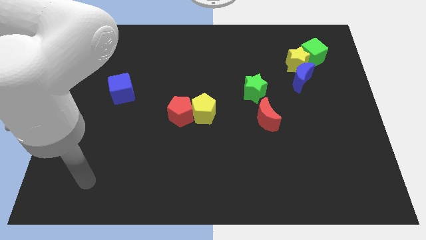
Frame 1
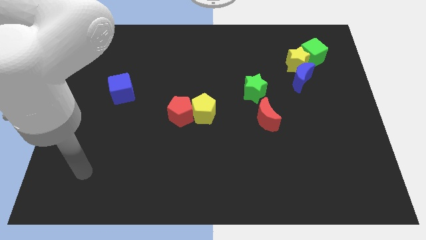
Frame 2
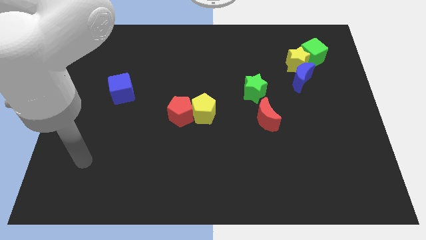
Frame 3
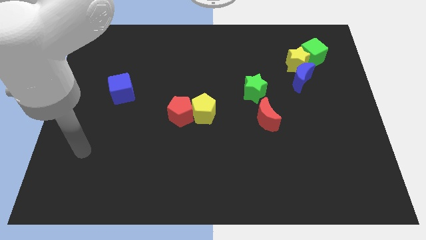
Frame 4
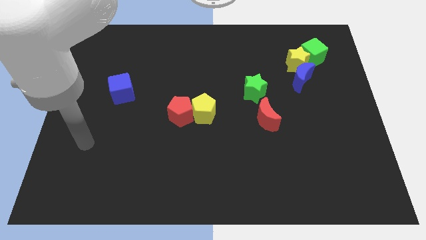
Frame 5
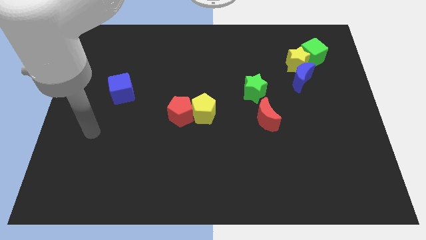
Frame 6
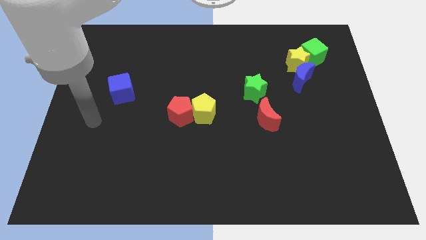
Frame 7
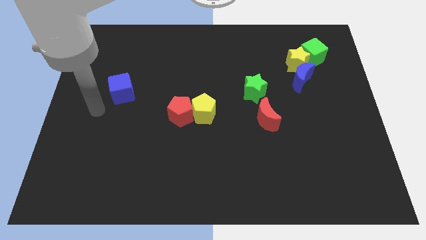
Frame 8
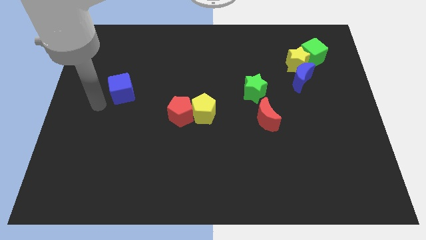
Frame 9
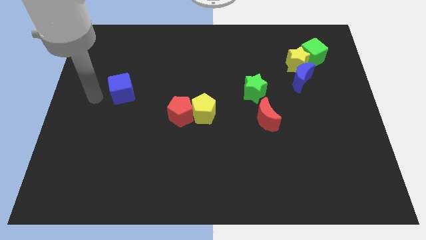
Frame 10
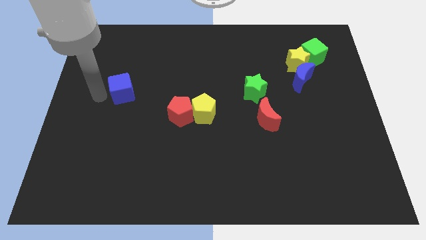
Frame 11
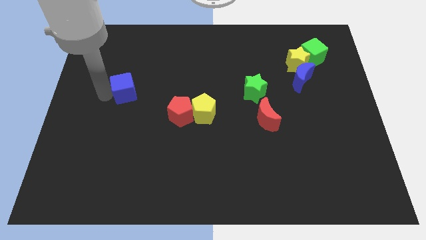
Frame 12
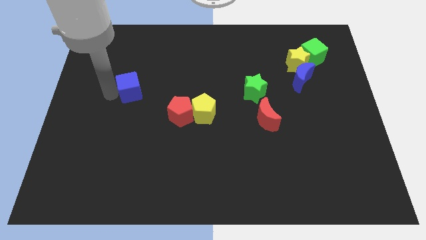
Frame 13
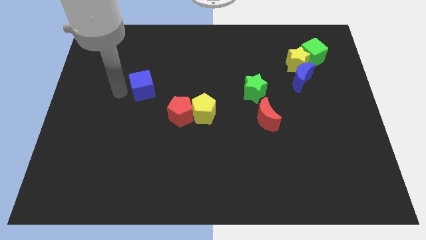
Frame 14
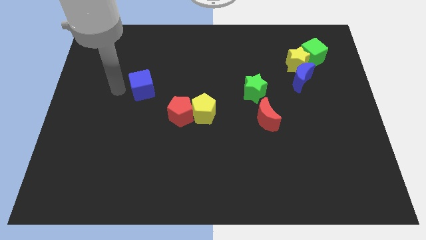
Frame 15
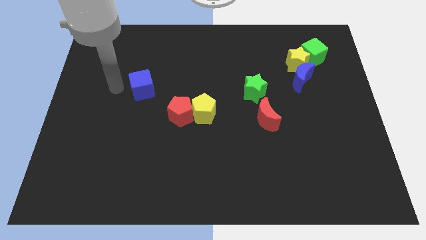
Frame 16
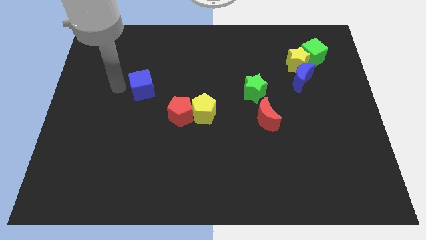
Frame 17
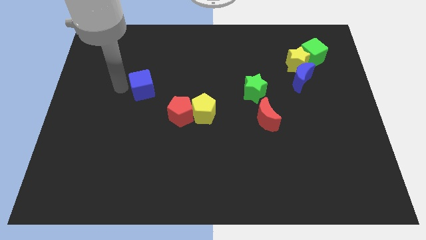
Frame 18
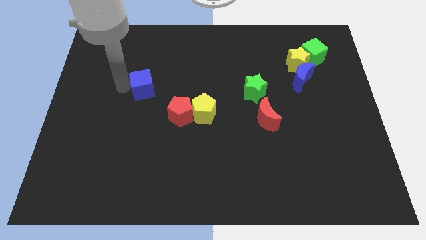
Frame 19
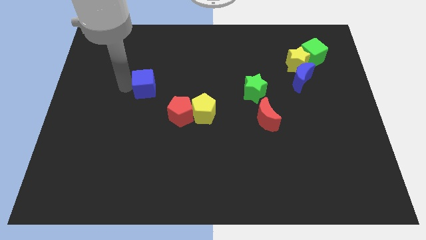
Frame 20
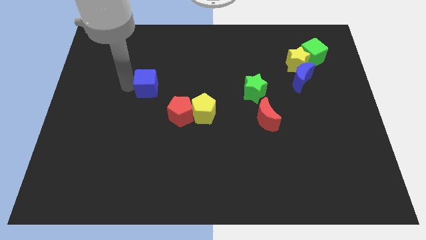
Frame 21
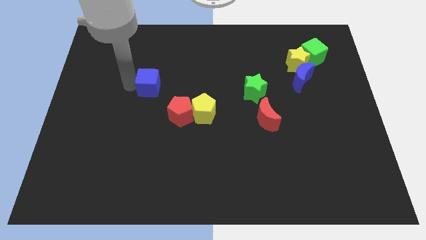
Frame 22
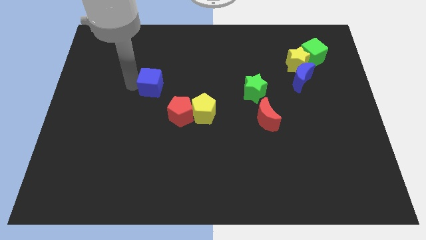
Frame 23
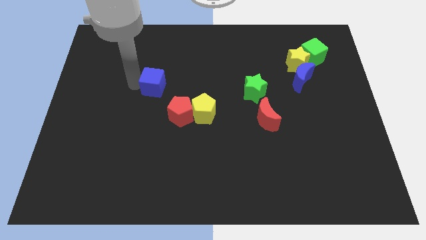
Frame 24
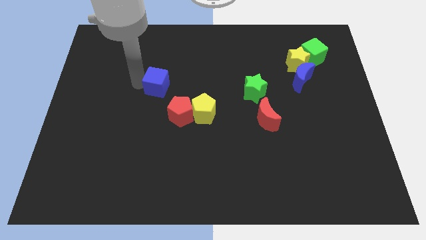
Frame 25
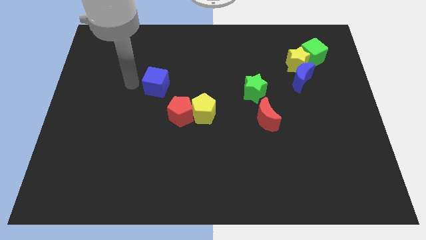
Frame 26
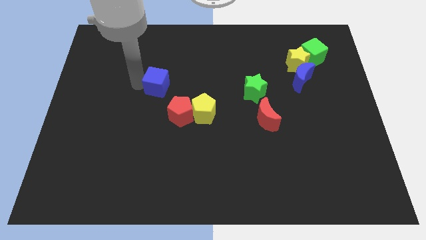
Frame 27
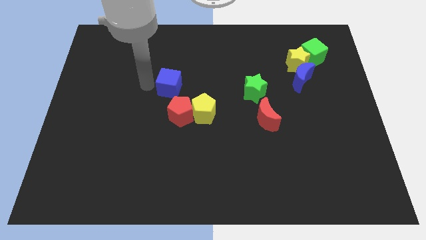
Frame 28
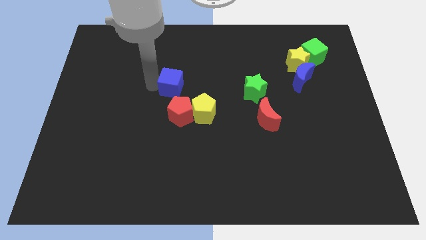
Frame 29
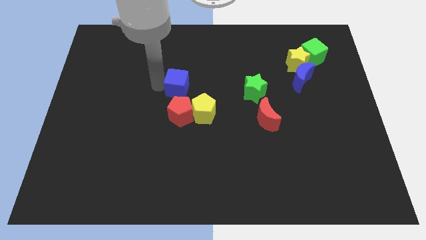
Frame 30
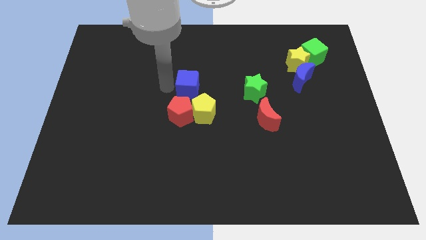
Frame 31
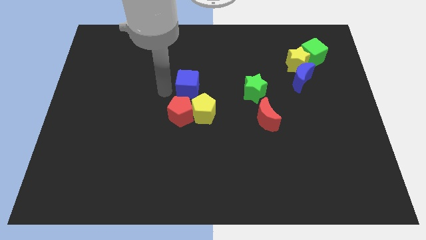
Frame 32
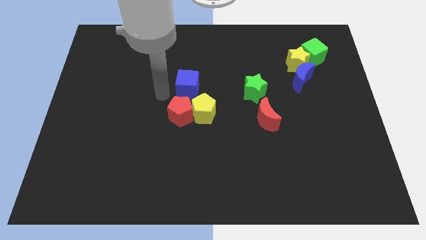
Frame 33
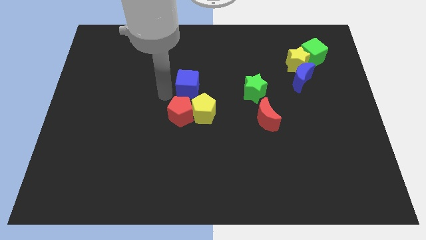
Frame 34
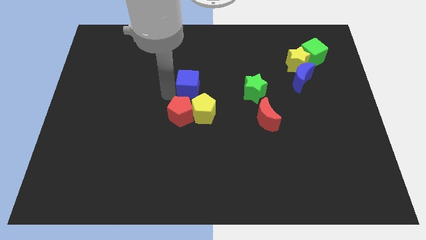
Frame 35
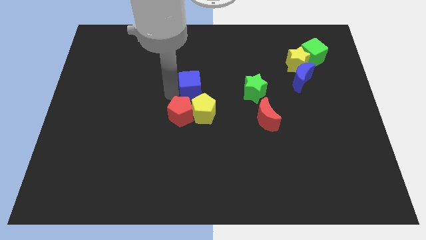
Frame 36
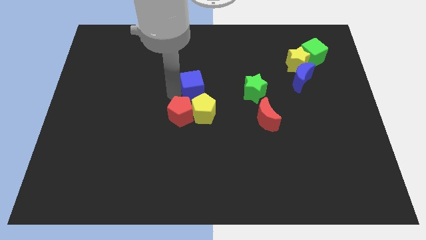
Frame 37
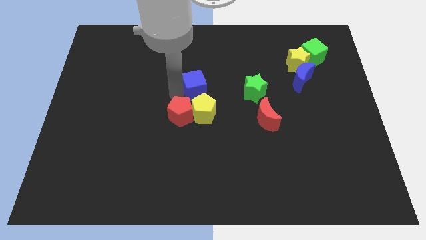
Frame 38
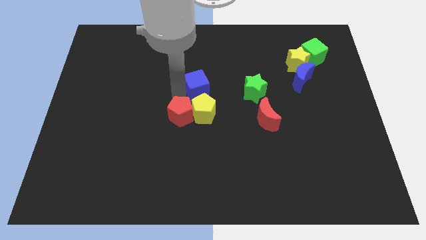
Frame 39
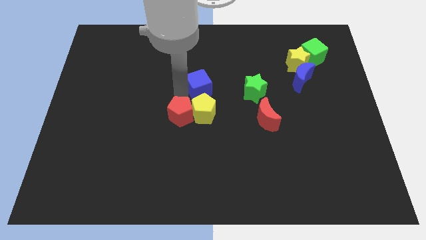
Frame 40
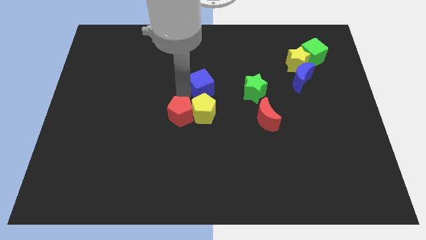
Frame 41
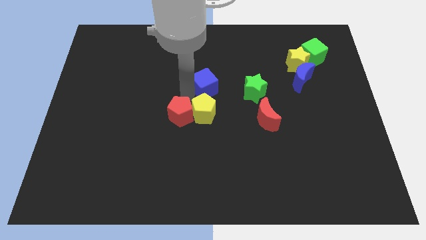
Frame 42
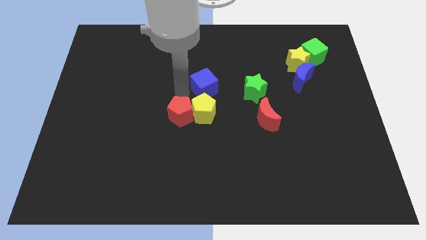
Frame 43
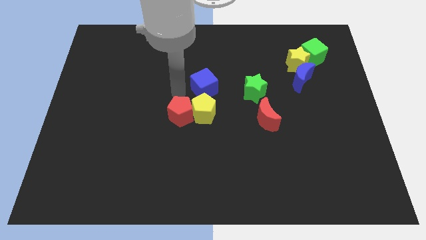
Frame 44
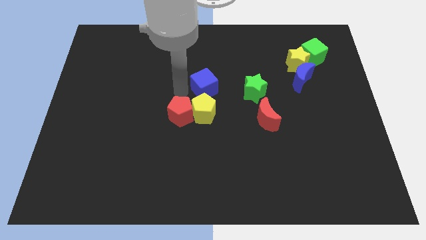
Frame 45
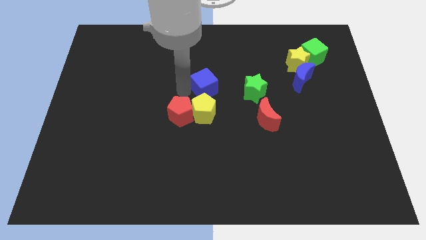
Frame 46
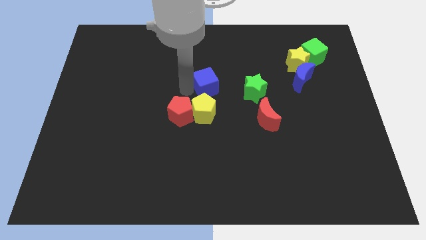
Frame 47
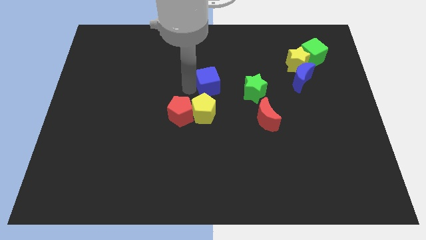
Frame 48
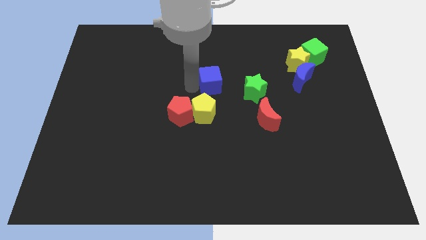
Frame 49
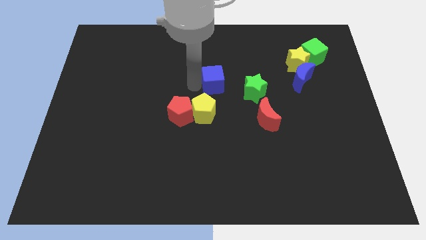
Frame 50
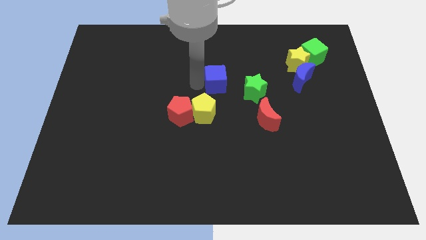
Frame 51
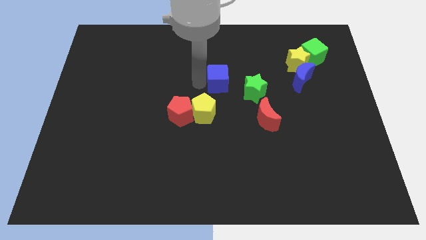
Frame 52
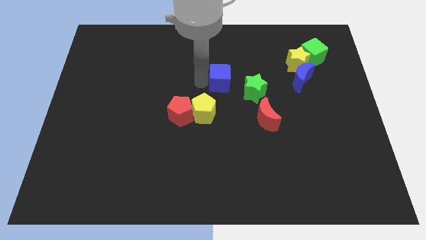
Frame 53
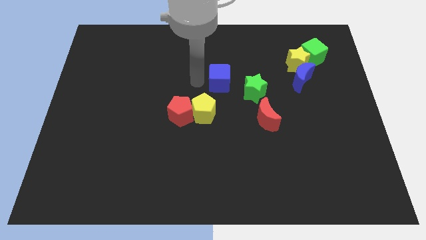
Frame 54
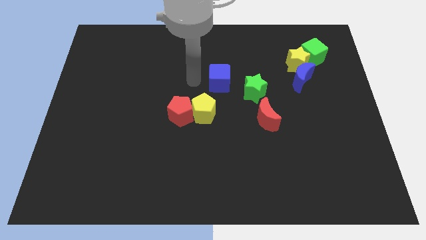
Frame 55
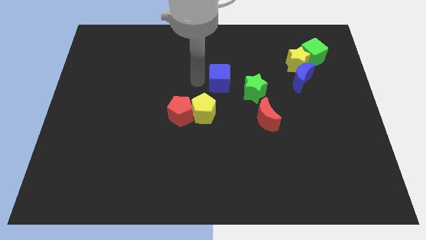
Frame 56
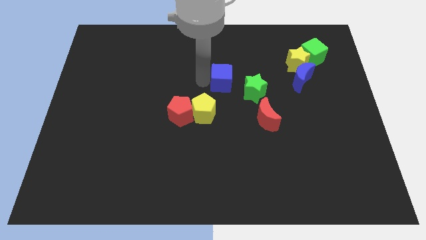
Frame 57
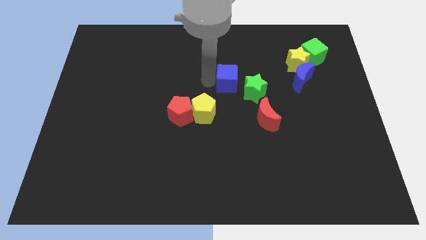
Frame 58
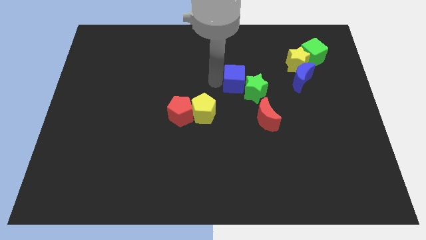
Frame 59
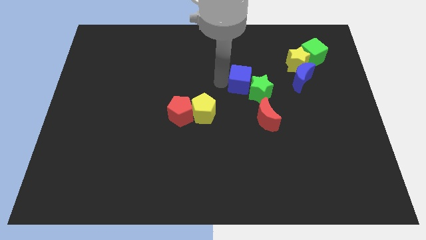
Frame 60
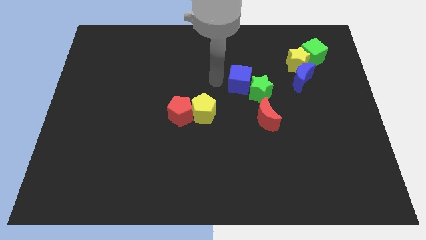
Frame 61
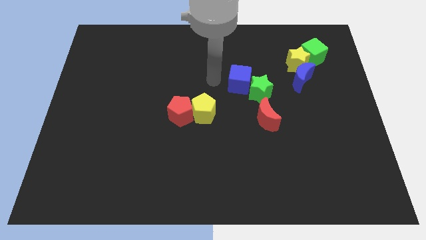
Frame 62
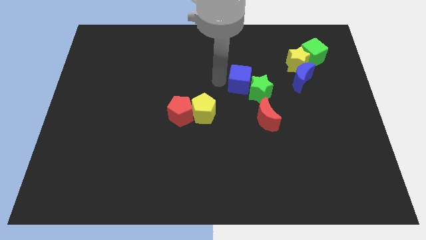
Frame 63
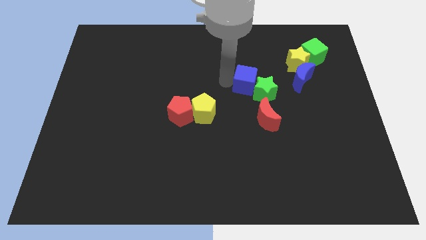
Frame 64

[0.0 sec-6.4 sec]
put the blue cube above the red moon

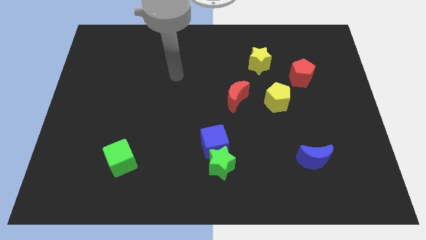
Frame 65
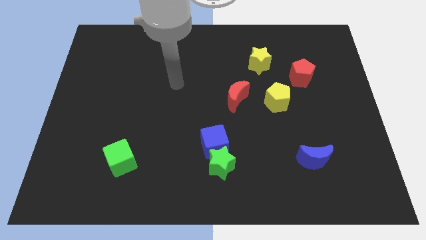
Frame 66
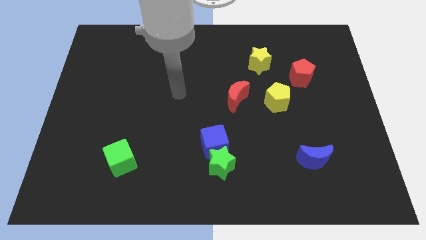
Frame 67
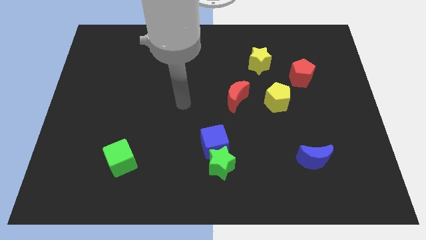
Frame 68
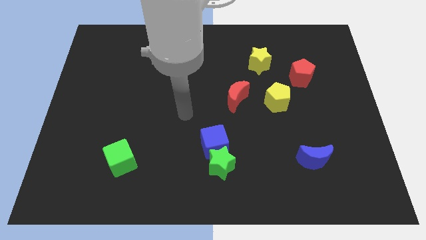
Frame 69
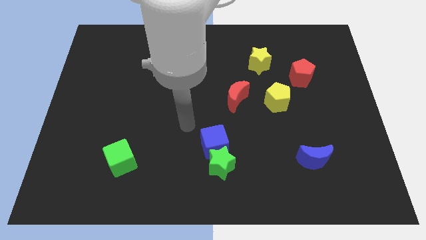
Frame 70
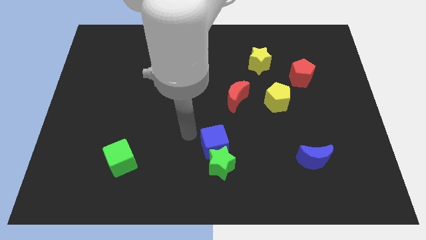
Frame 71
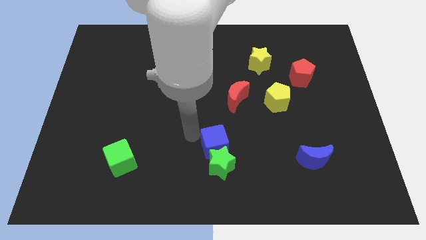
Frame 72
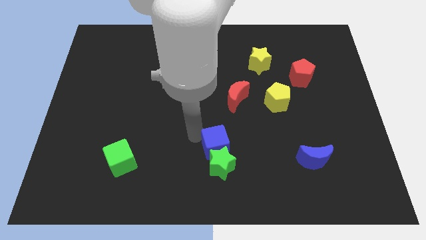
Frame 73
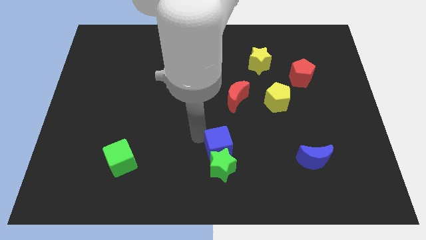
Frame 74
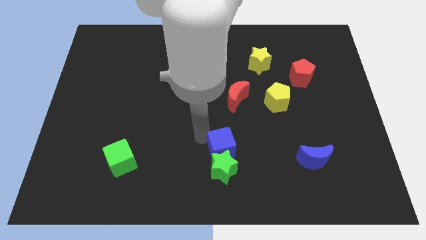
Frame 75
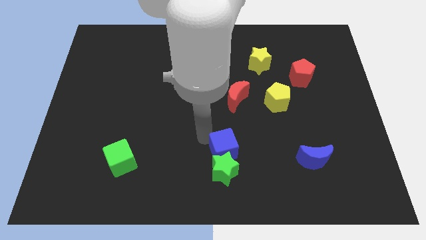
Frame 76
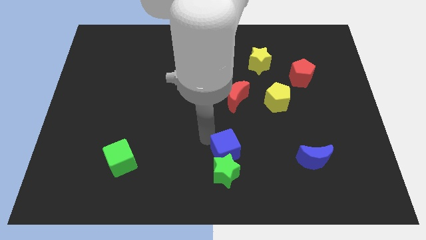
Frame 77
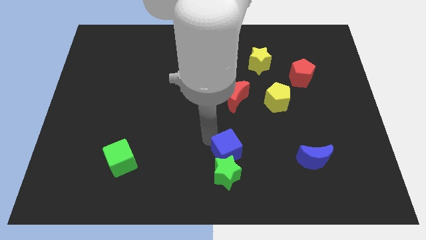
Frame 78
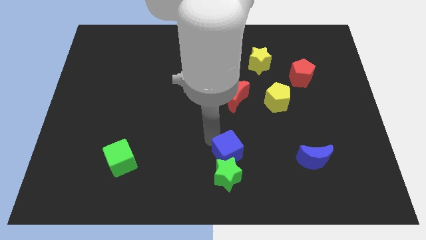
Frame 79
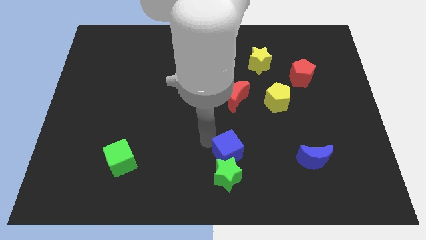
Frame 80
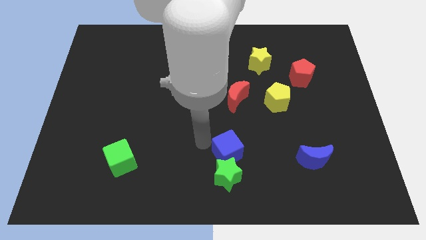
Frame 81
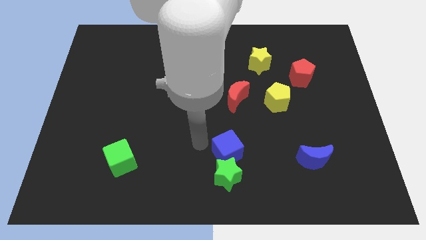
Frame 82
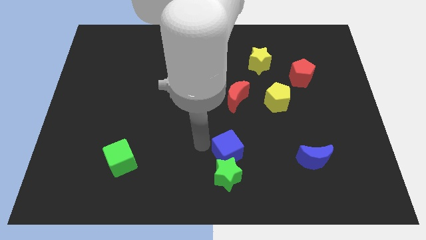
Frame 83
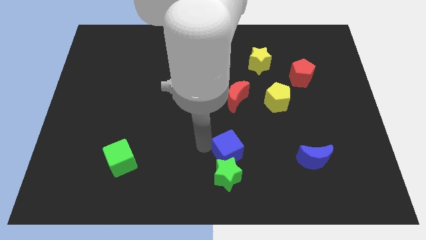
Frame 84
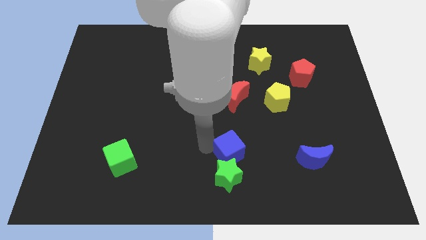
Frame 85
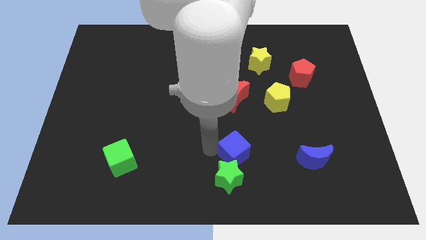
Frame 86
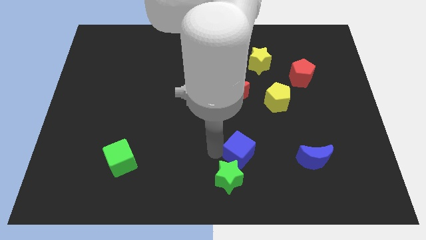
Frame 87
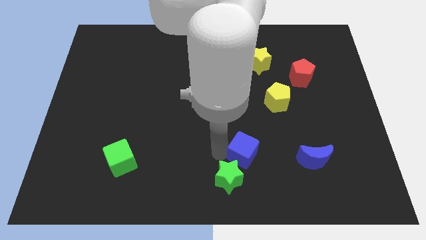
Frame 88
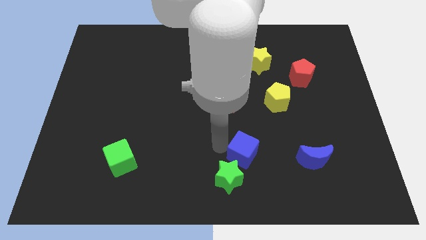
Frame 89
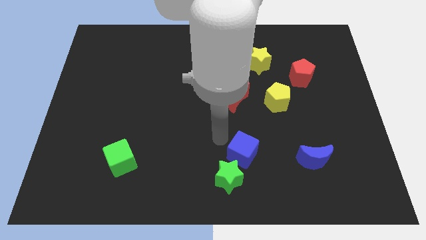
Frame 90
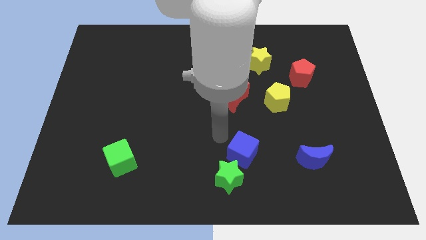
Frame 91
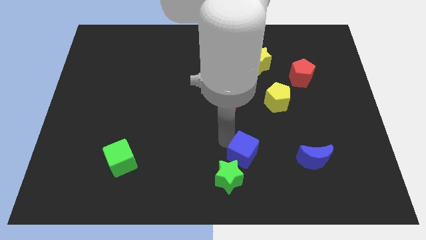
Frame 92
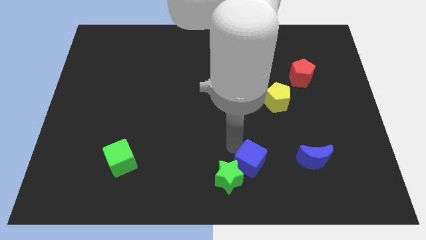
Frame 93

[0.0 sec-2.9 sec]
put the blue cube to the right side of the green star
